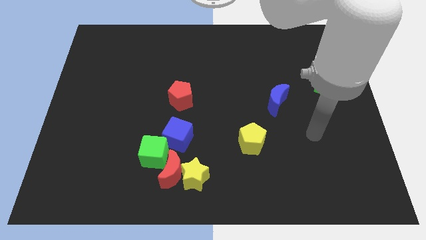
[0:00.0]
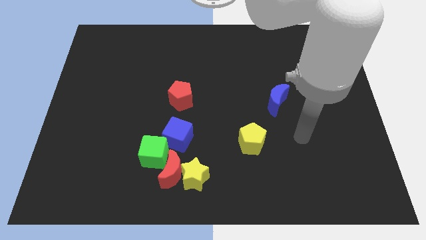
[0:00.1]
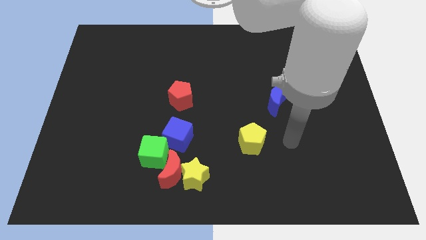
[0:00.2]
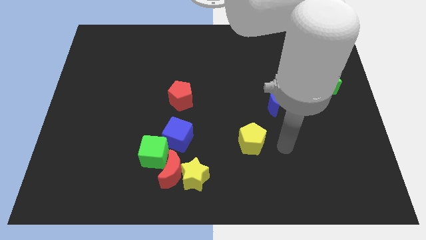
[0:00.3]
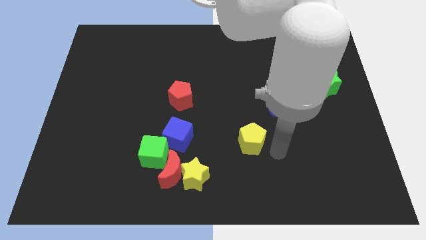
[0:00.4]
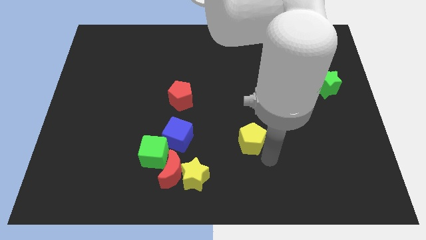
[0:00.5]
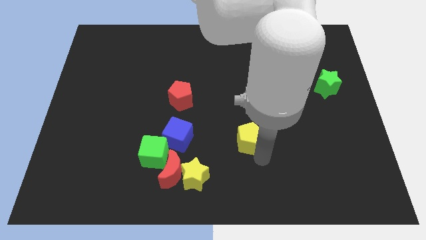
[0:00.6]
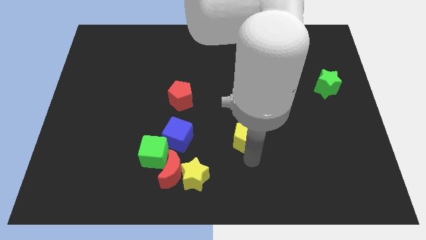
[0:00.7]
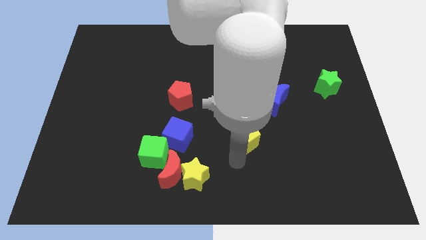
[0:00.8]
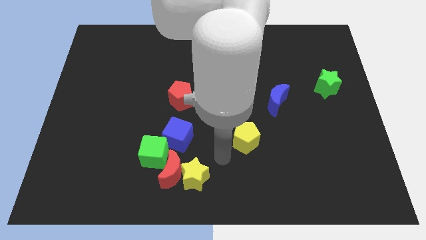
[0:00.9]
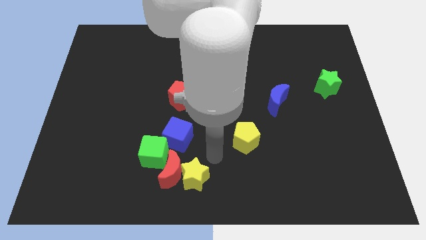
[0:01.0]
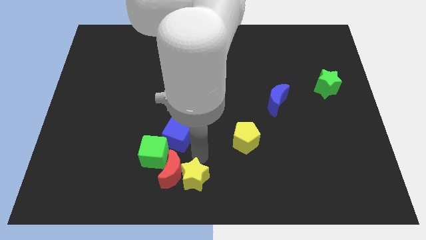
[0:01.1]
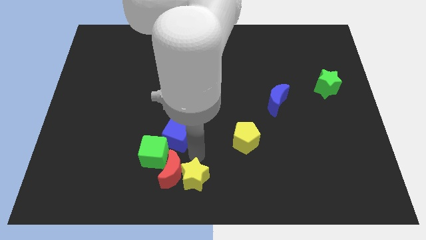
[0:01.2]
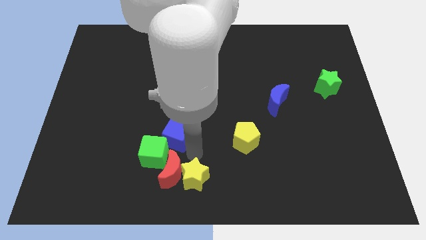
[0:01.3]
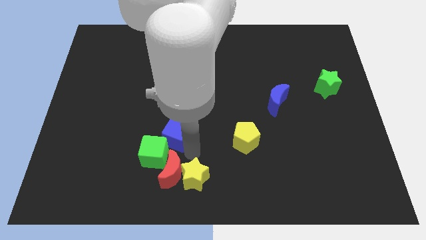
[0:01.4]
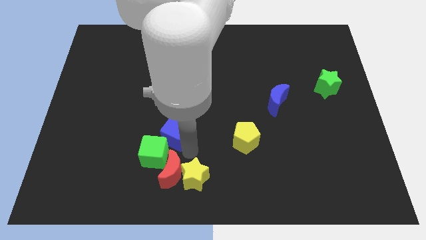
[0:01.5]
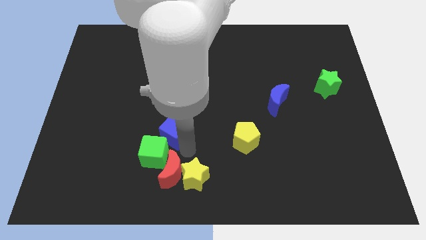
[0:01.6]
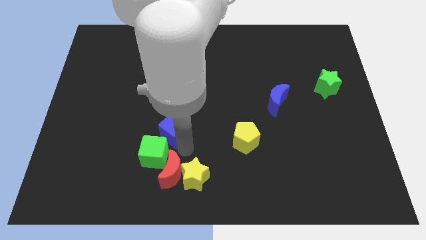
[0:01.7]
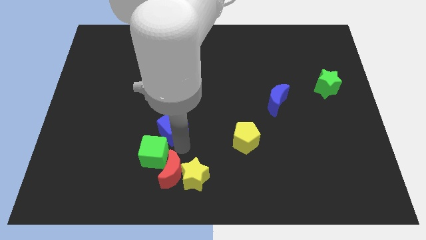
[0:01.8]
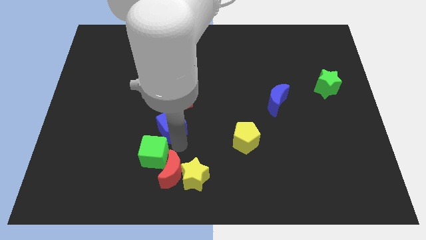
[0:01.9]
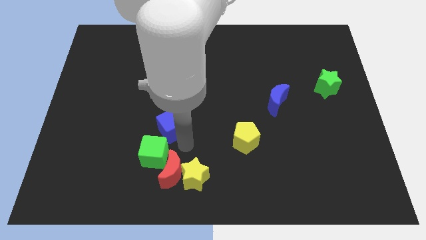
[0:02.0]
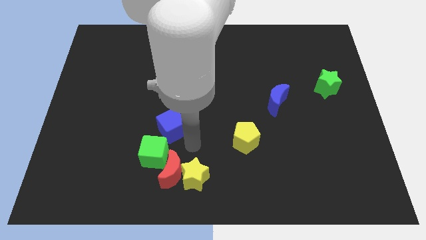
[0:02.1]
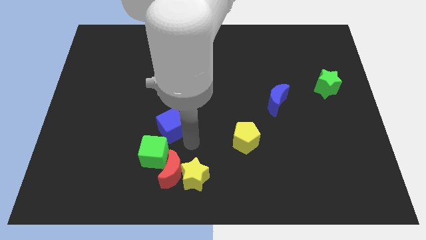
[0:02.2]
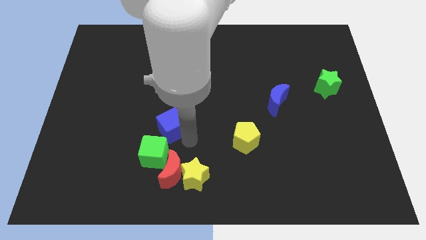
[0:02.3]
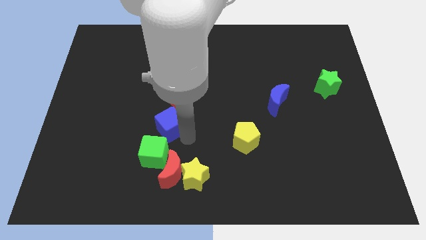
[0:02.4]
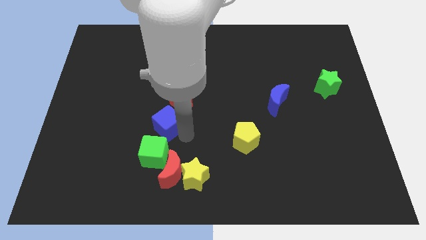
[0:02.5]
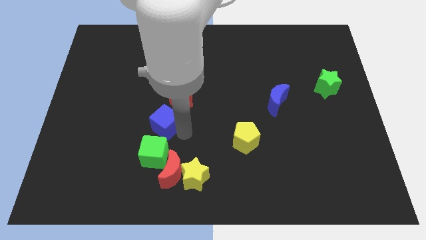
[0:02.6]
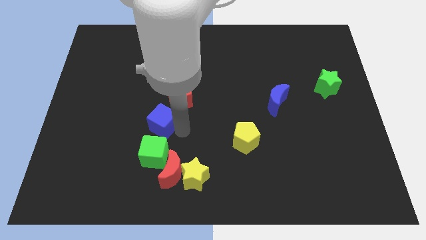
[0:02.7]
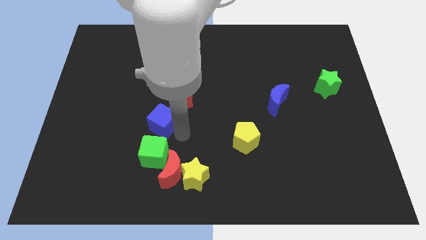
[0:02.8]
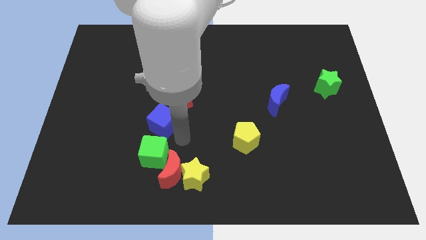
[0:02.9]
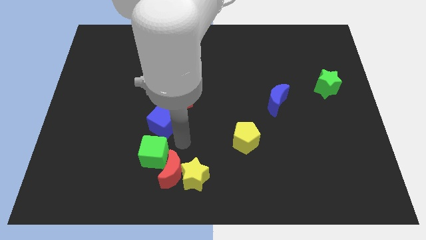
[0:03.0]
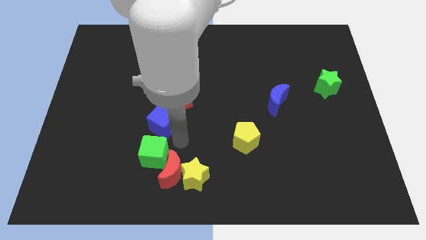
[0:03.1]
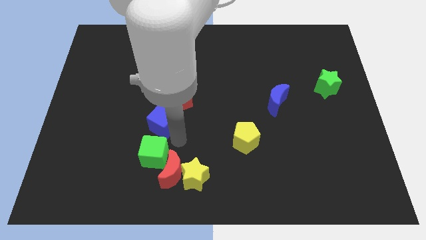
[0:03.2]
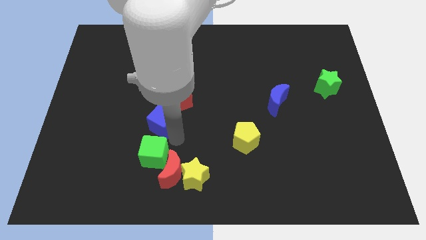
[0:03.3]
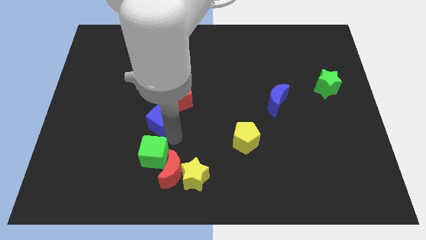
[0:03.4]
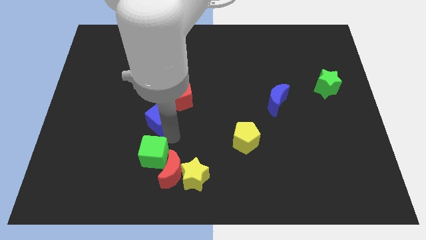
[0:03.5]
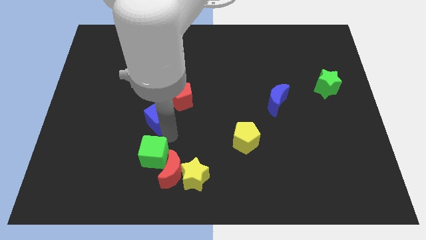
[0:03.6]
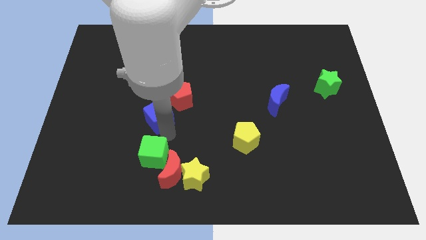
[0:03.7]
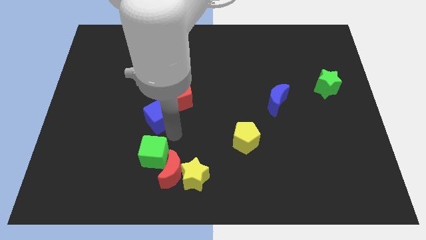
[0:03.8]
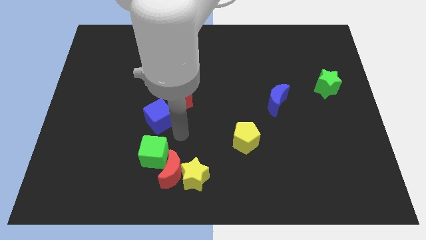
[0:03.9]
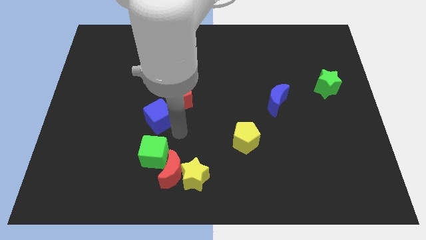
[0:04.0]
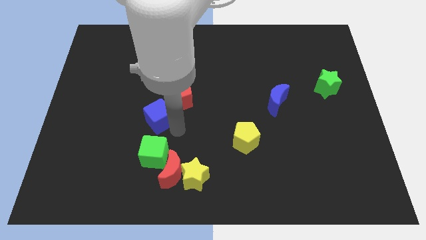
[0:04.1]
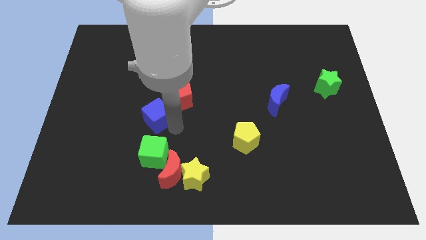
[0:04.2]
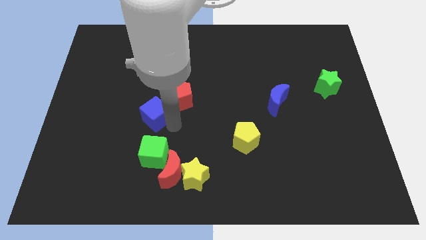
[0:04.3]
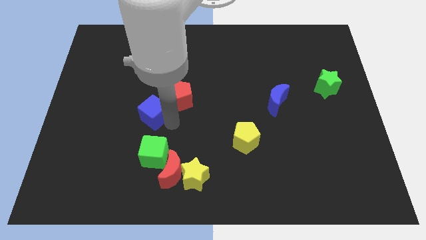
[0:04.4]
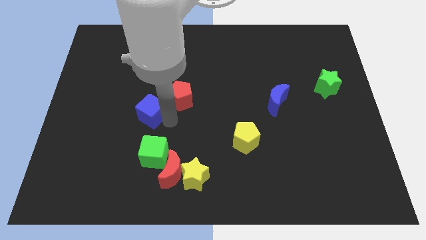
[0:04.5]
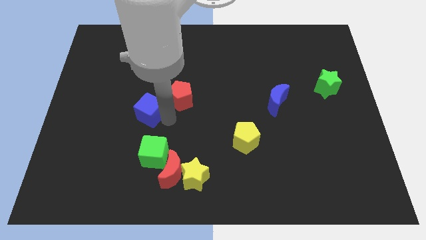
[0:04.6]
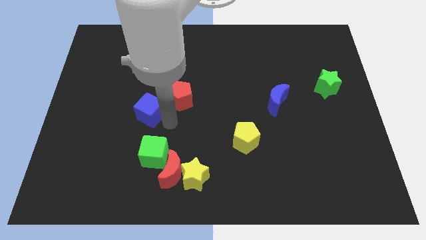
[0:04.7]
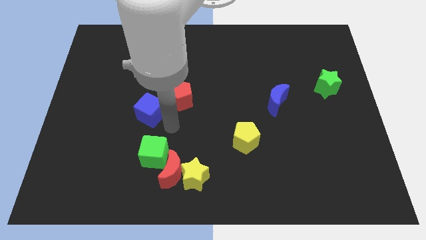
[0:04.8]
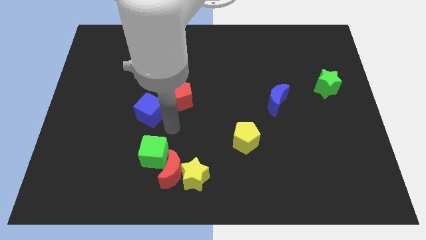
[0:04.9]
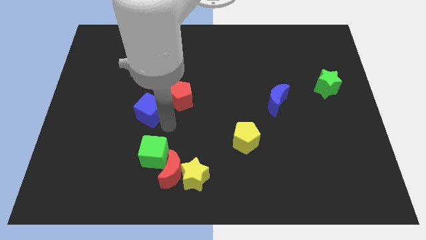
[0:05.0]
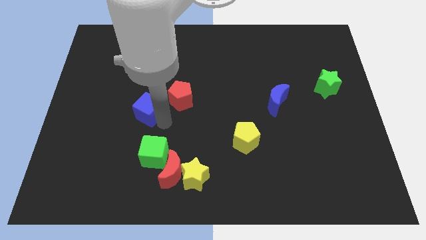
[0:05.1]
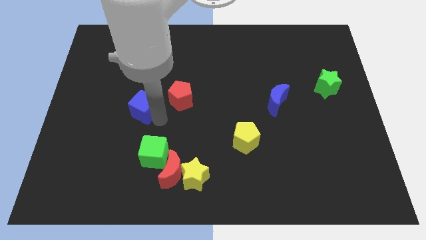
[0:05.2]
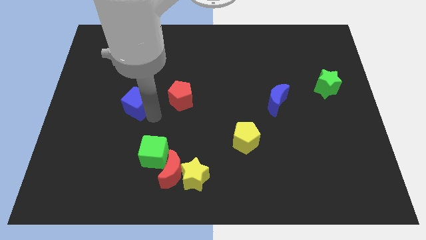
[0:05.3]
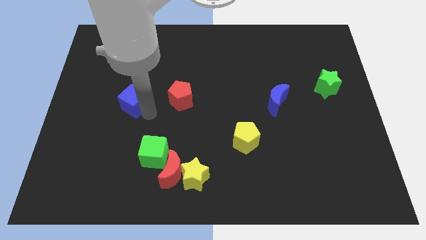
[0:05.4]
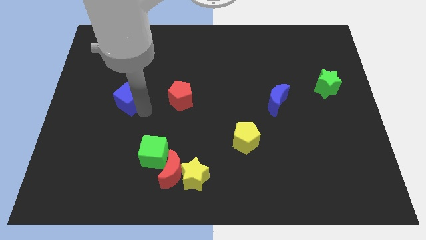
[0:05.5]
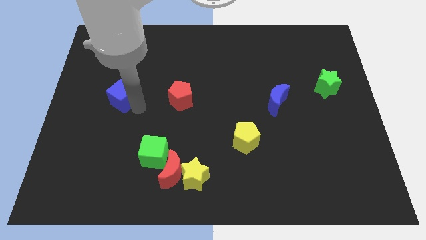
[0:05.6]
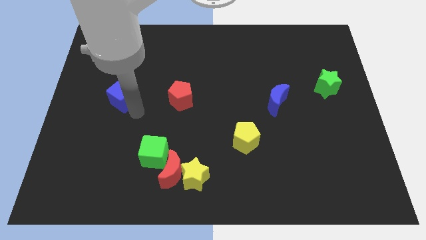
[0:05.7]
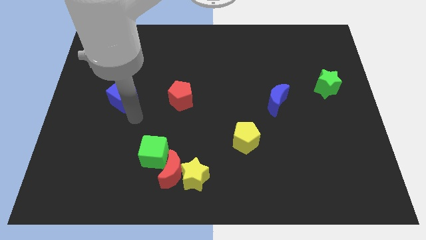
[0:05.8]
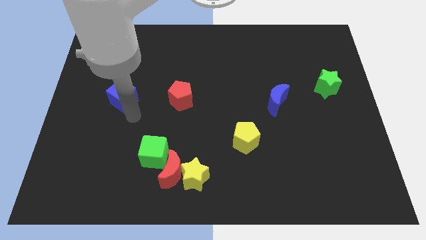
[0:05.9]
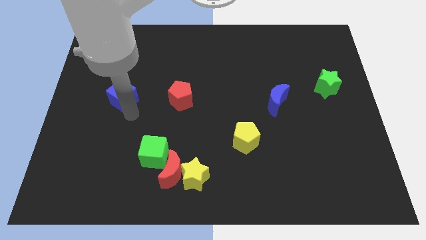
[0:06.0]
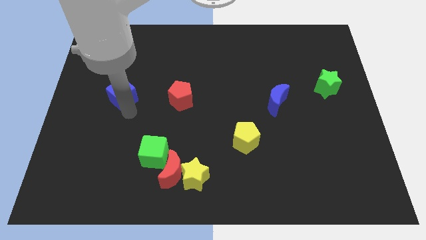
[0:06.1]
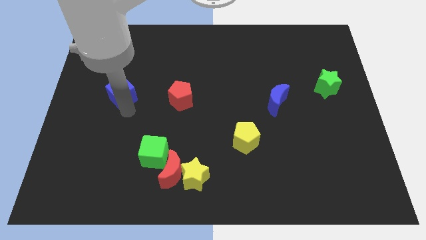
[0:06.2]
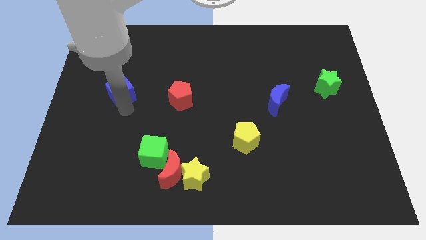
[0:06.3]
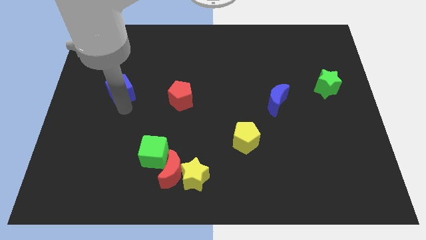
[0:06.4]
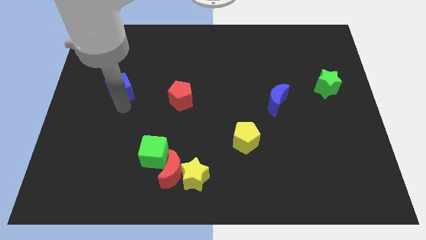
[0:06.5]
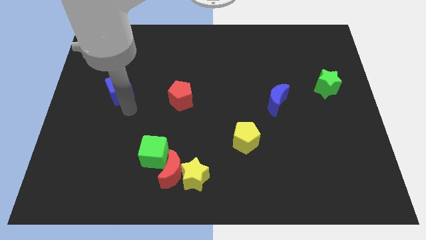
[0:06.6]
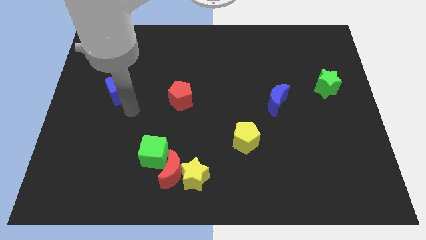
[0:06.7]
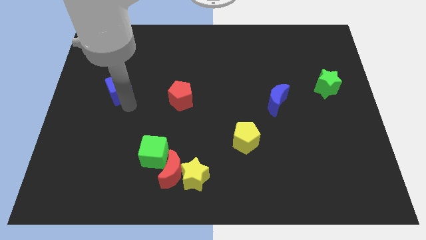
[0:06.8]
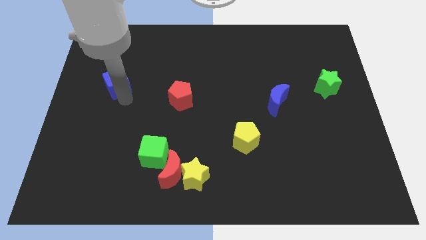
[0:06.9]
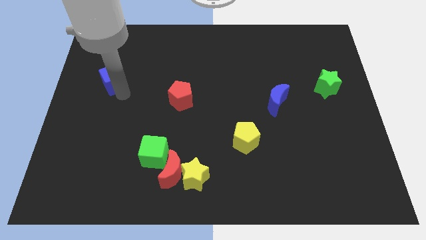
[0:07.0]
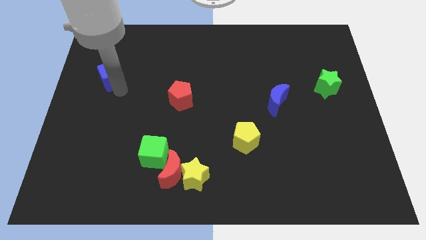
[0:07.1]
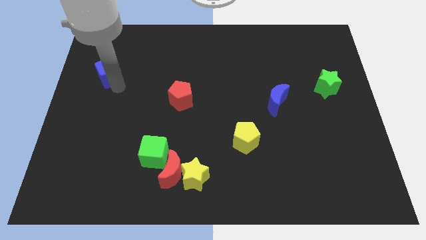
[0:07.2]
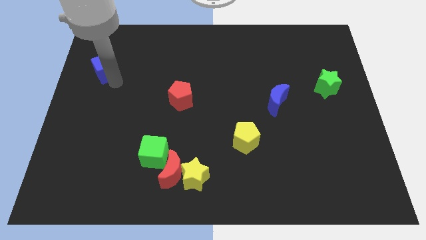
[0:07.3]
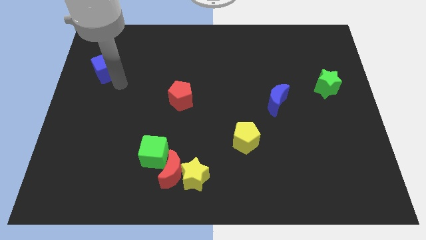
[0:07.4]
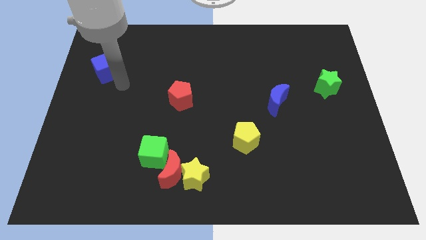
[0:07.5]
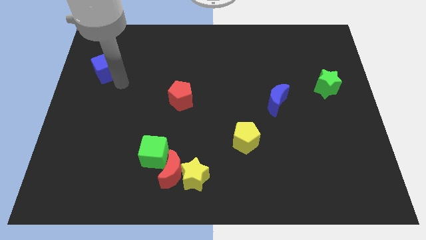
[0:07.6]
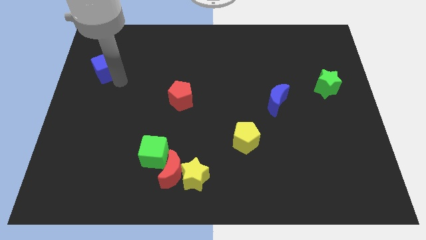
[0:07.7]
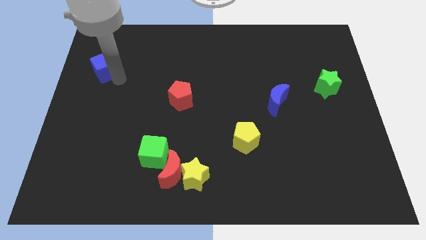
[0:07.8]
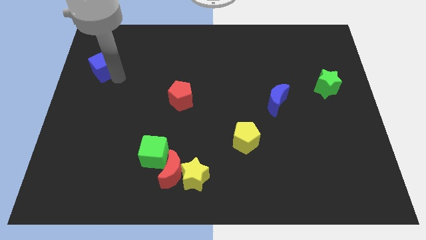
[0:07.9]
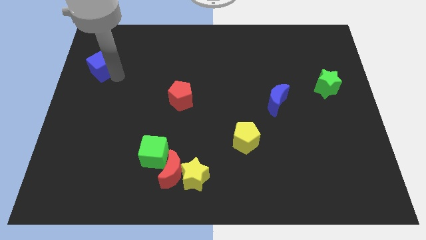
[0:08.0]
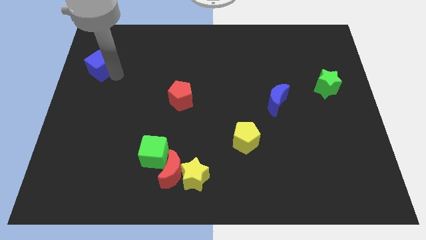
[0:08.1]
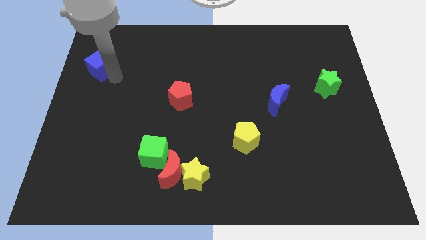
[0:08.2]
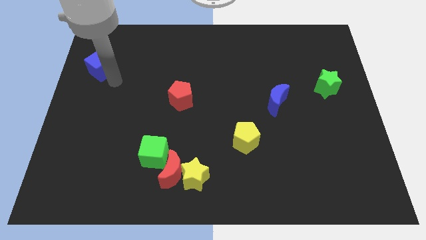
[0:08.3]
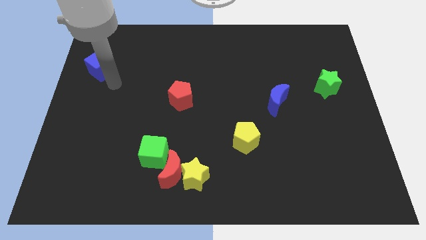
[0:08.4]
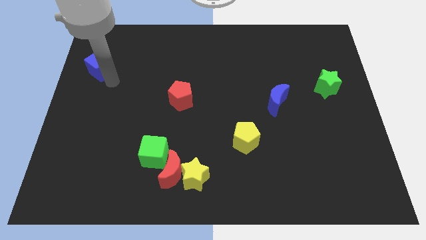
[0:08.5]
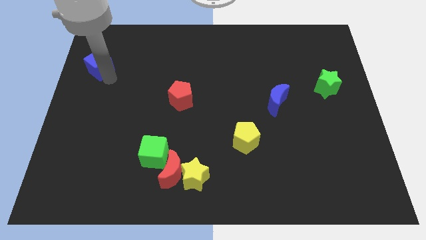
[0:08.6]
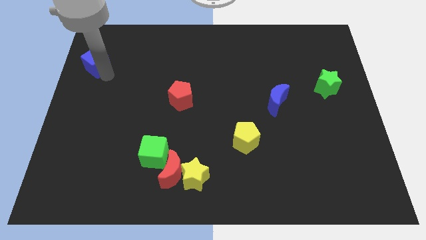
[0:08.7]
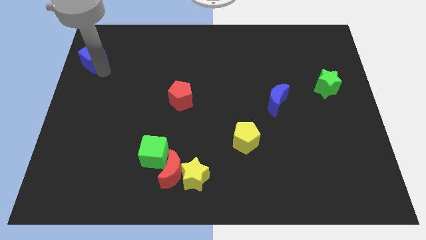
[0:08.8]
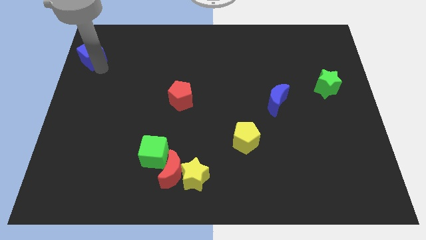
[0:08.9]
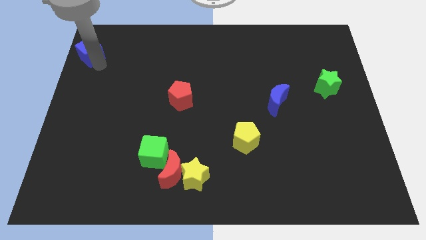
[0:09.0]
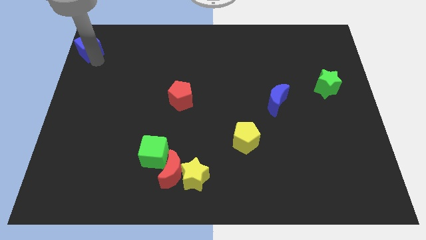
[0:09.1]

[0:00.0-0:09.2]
move the blue cube to the top left of the board
